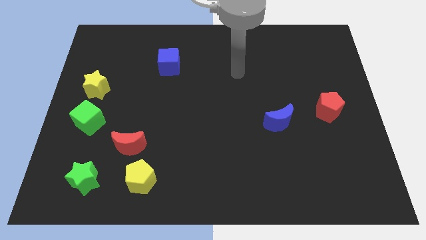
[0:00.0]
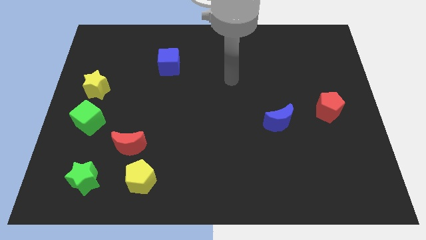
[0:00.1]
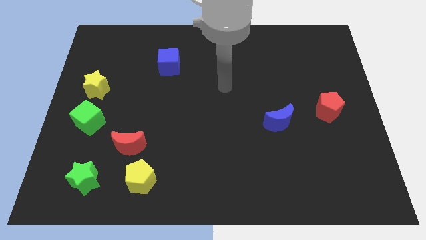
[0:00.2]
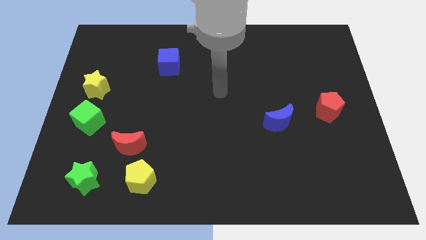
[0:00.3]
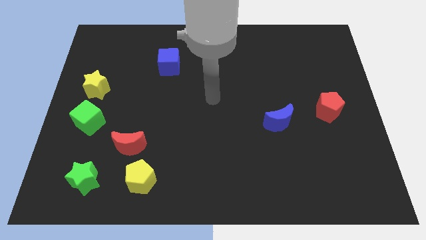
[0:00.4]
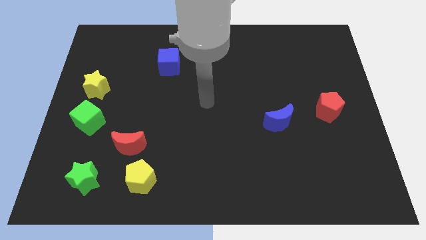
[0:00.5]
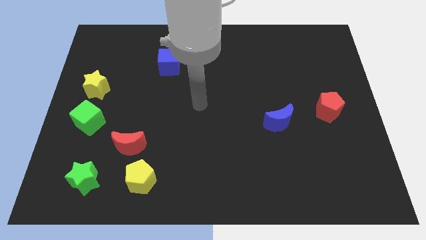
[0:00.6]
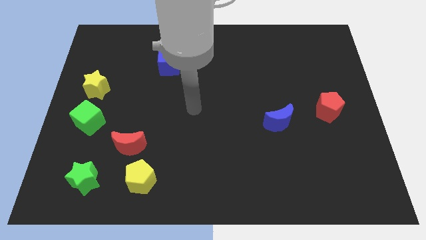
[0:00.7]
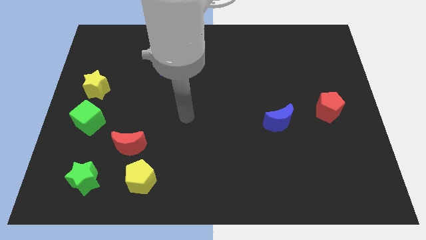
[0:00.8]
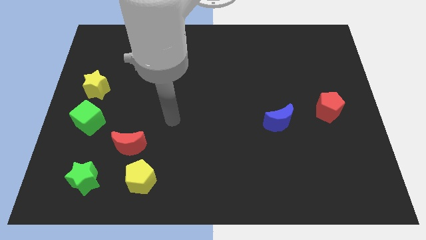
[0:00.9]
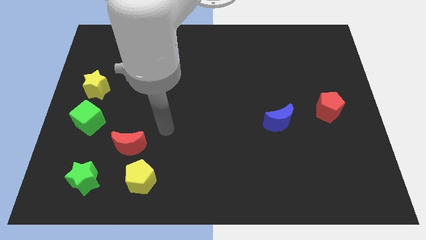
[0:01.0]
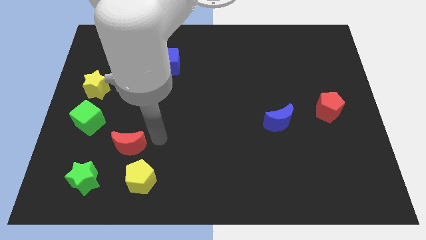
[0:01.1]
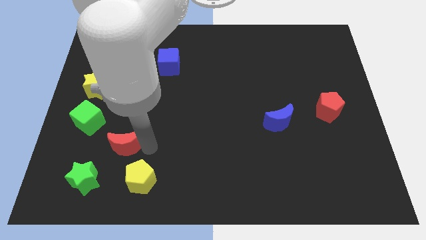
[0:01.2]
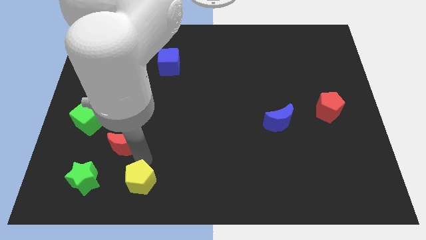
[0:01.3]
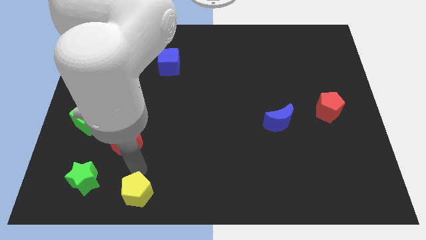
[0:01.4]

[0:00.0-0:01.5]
pull the red moon apart from the yellow pentagon

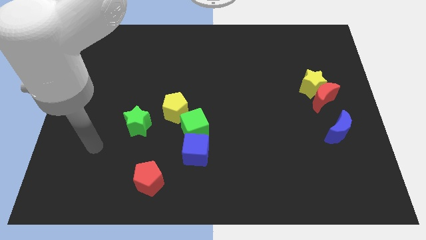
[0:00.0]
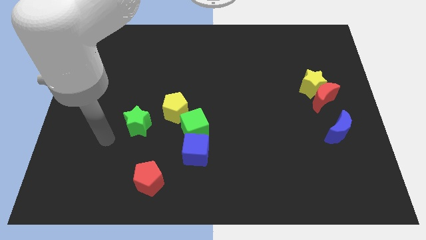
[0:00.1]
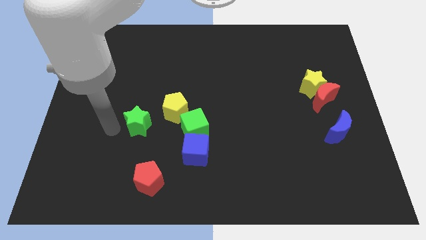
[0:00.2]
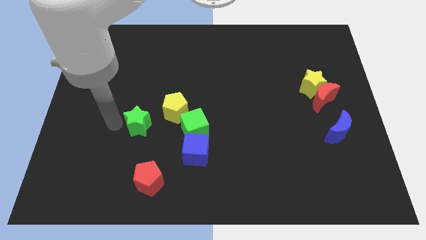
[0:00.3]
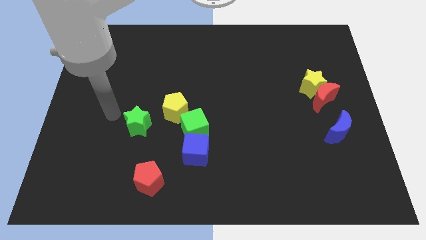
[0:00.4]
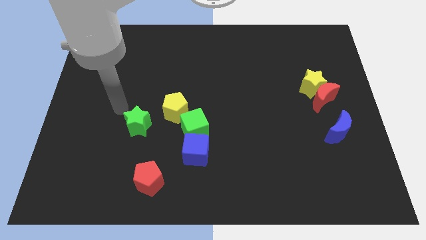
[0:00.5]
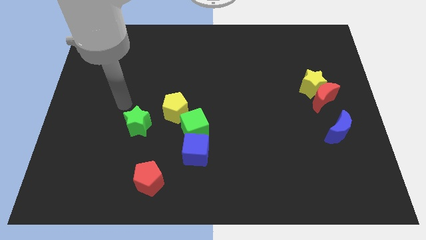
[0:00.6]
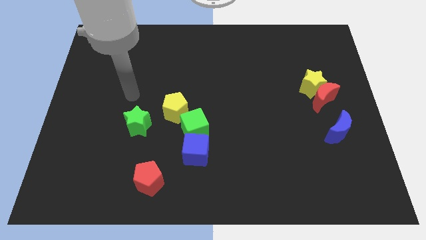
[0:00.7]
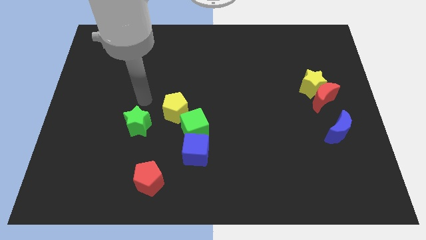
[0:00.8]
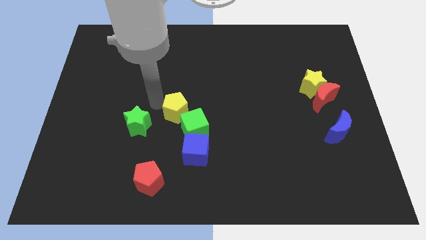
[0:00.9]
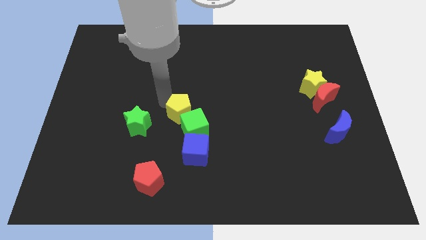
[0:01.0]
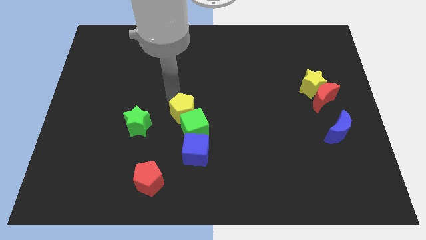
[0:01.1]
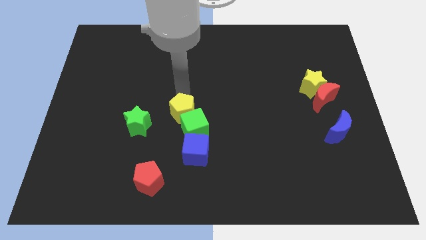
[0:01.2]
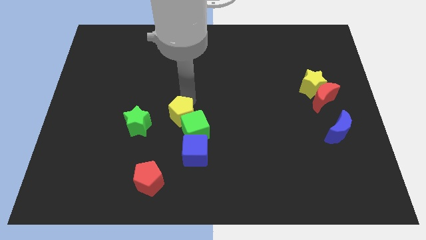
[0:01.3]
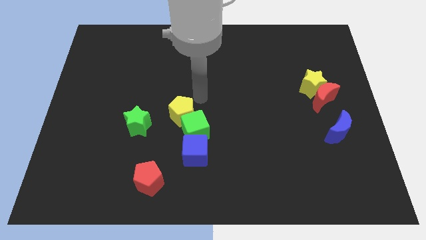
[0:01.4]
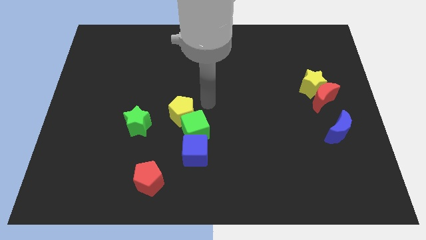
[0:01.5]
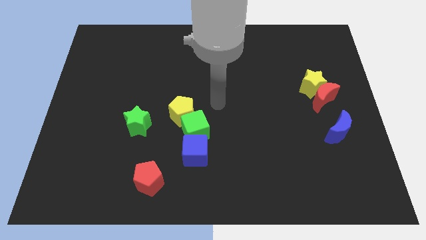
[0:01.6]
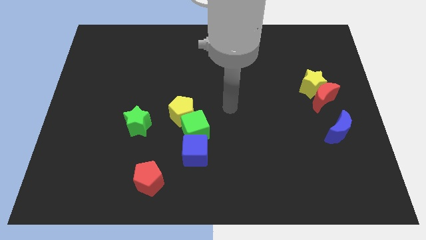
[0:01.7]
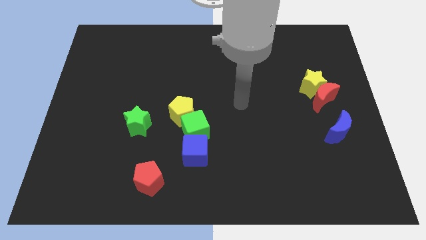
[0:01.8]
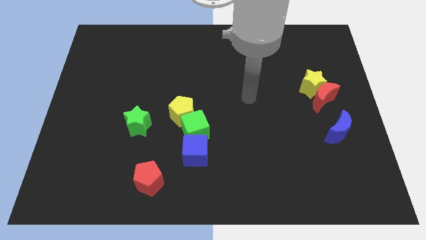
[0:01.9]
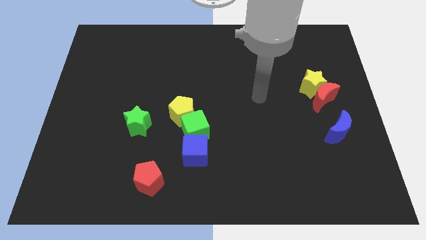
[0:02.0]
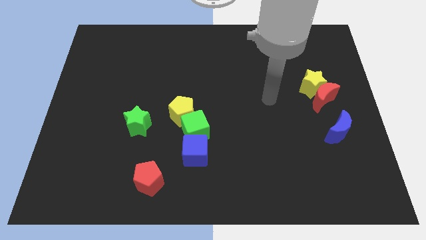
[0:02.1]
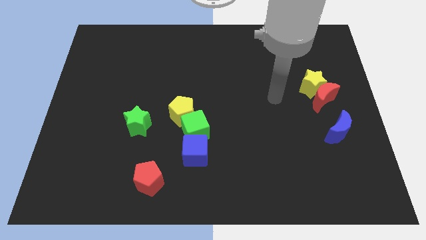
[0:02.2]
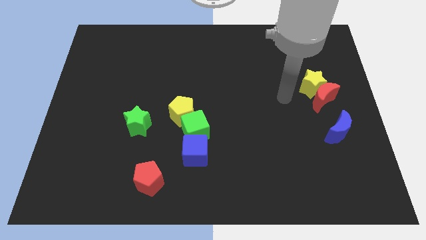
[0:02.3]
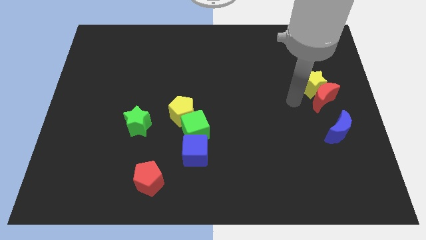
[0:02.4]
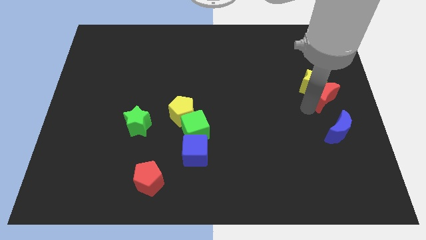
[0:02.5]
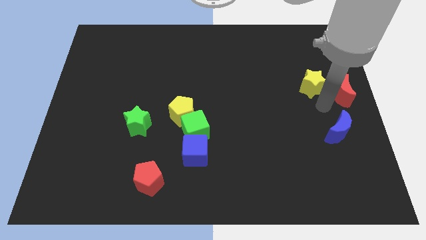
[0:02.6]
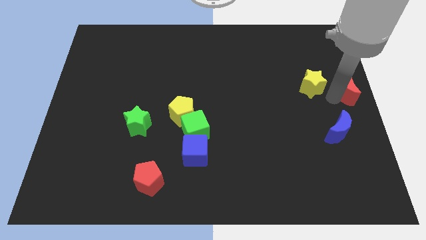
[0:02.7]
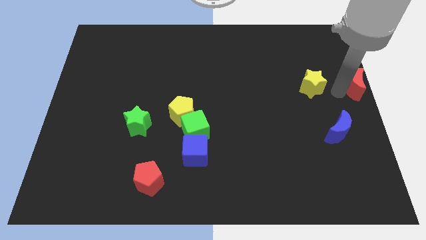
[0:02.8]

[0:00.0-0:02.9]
separate the yellow star from the red moon

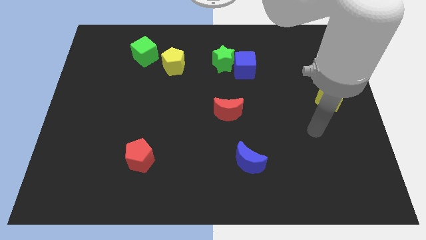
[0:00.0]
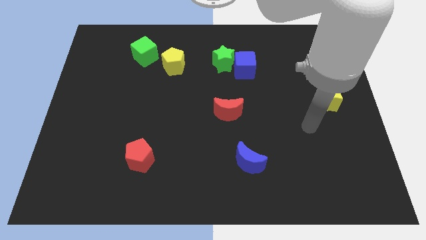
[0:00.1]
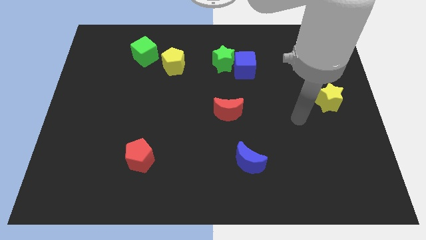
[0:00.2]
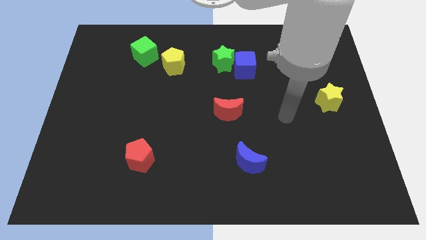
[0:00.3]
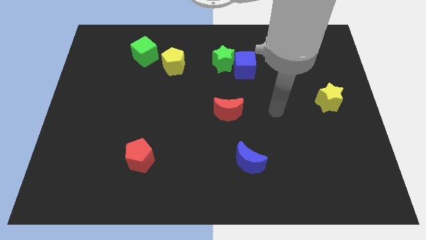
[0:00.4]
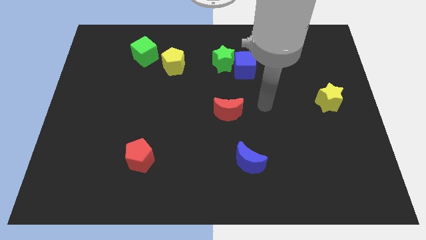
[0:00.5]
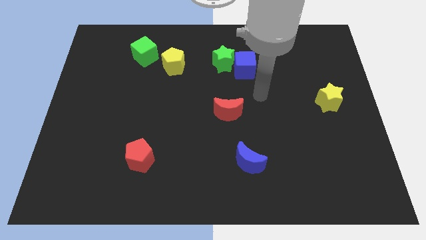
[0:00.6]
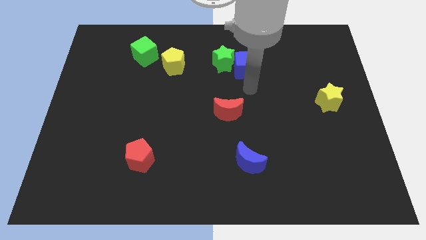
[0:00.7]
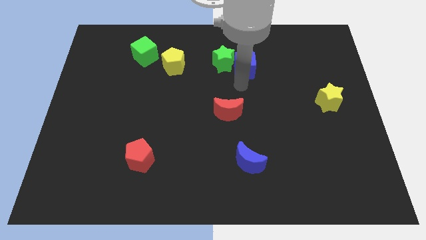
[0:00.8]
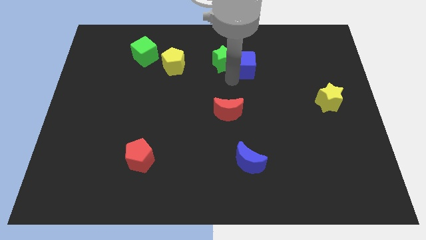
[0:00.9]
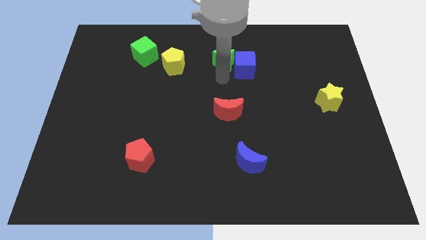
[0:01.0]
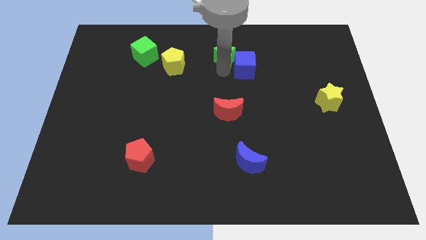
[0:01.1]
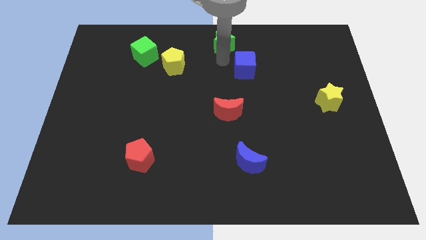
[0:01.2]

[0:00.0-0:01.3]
pull the blue cube apart from the green star

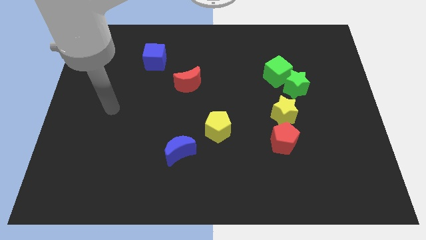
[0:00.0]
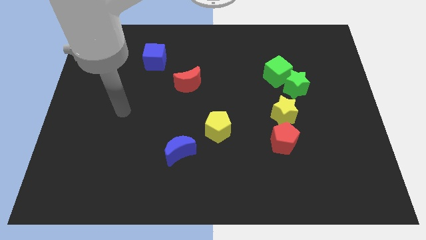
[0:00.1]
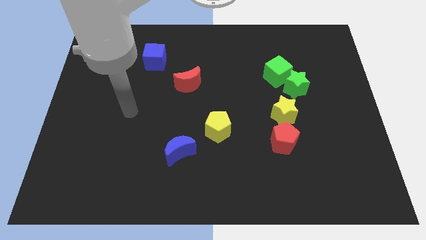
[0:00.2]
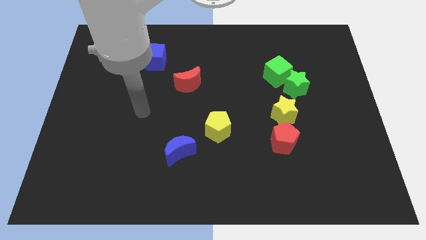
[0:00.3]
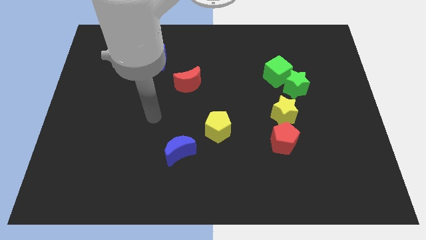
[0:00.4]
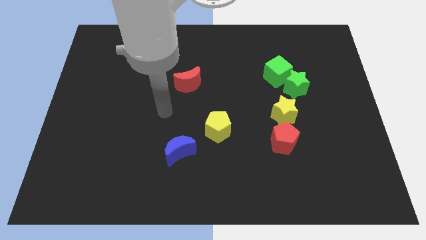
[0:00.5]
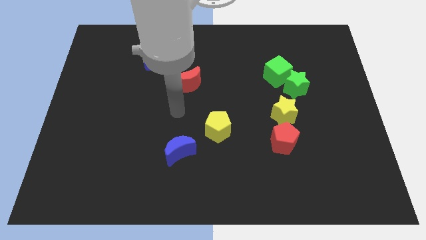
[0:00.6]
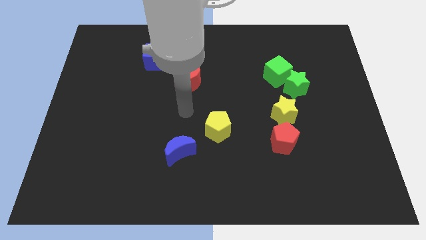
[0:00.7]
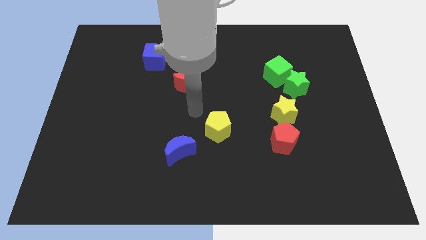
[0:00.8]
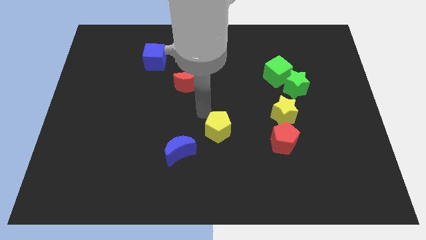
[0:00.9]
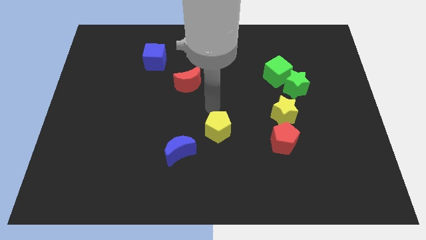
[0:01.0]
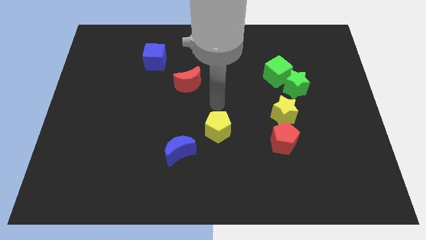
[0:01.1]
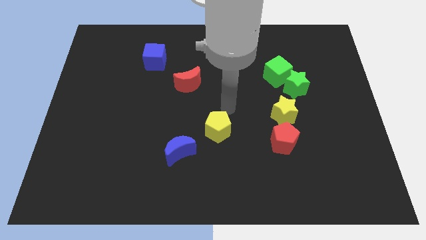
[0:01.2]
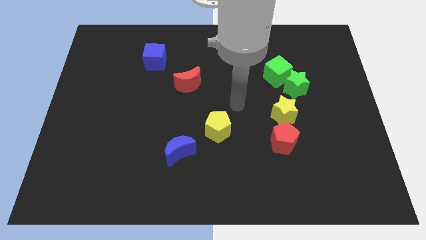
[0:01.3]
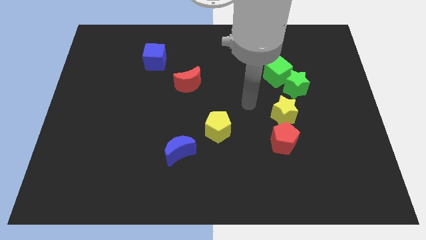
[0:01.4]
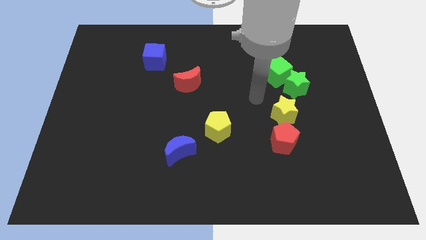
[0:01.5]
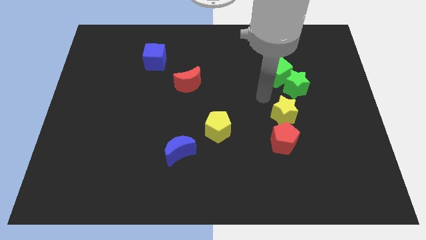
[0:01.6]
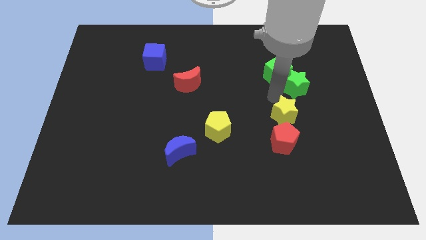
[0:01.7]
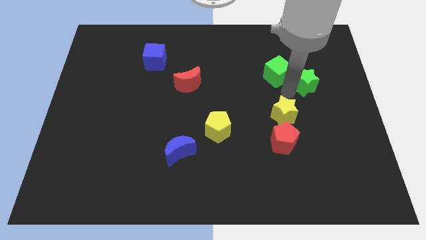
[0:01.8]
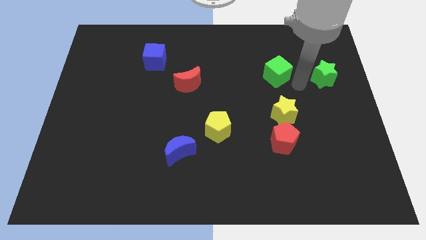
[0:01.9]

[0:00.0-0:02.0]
pull the green cube apart from the green star

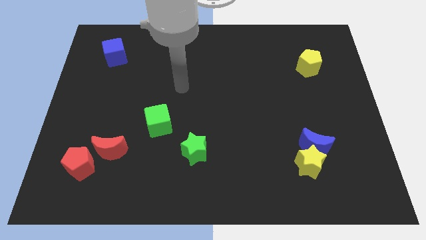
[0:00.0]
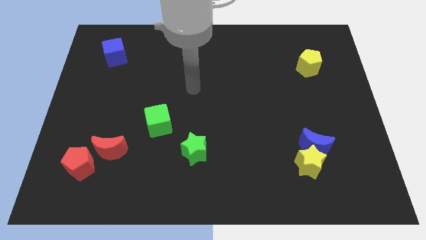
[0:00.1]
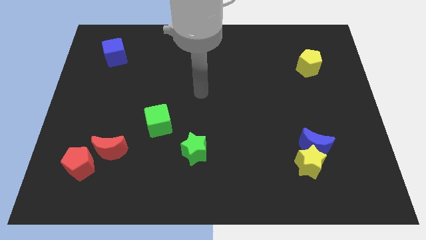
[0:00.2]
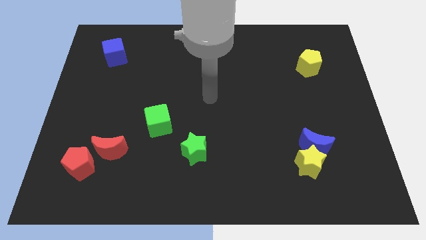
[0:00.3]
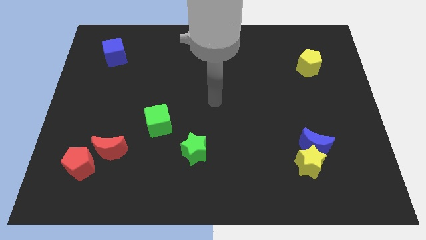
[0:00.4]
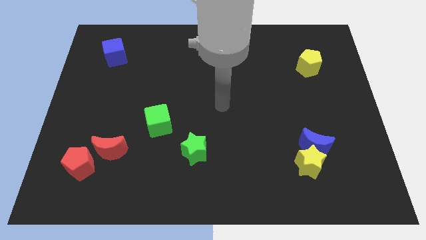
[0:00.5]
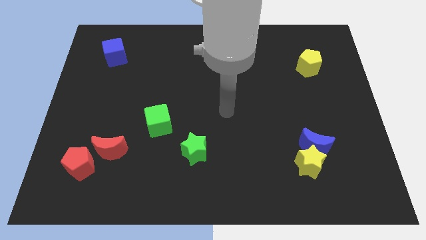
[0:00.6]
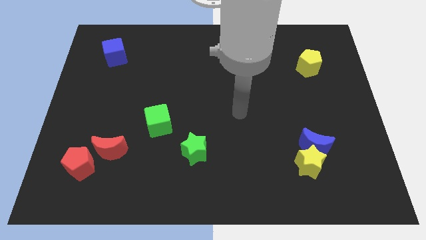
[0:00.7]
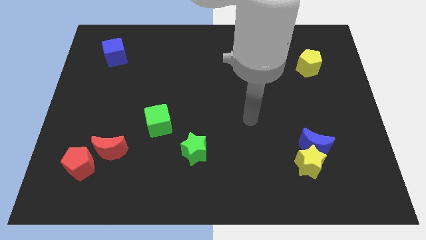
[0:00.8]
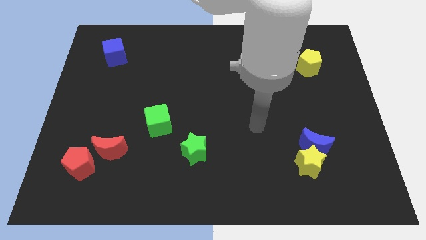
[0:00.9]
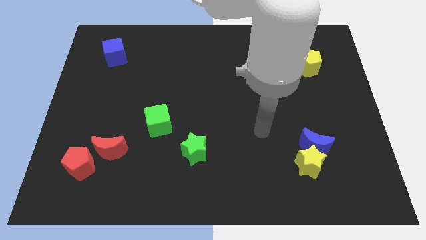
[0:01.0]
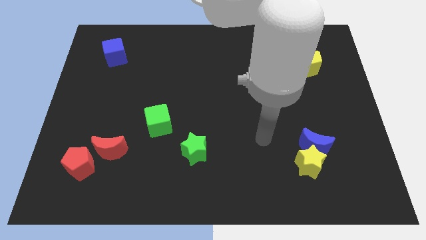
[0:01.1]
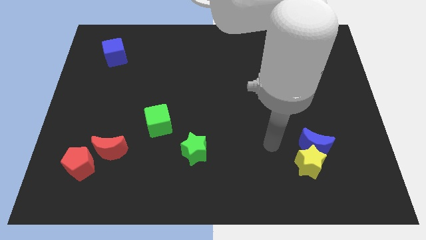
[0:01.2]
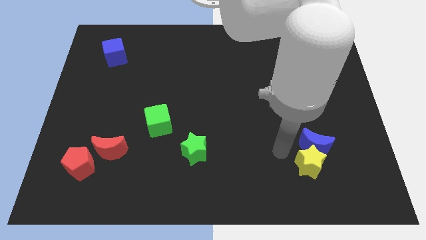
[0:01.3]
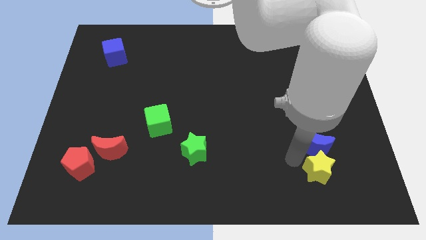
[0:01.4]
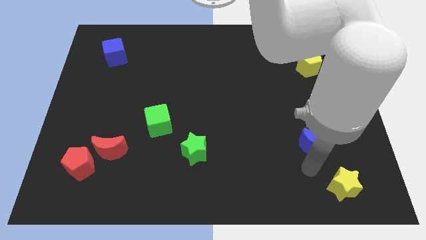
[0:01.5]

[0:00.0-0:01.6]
separate the blue moon from the yellow star

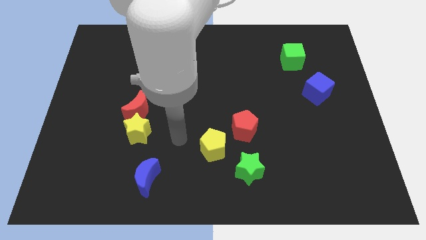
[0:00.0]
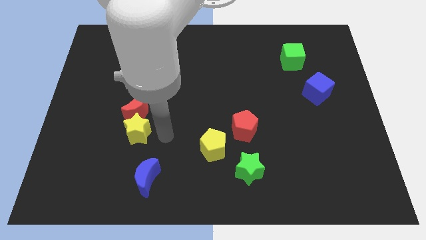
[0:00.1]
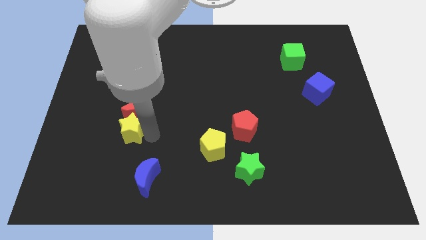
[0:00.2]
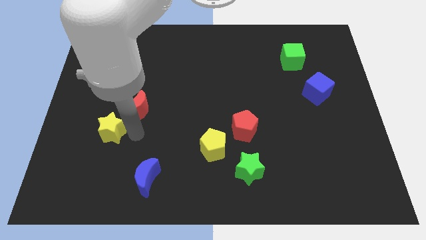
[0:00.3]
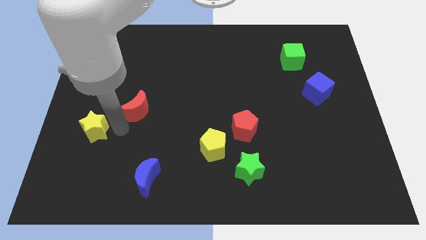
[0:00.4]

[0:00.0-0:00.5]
separate the red moon from the yellow star